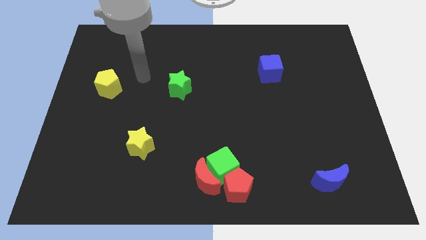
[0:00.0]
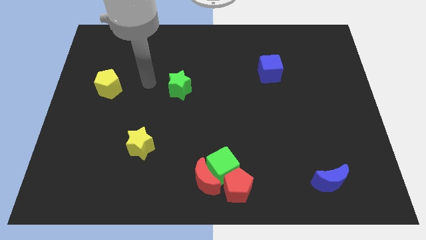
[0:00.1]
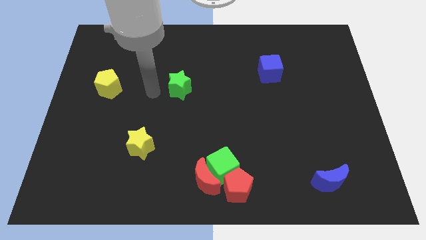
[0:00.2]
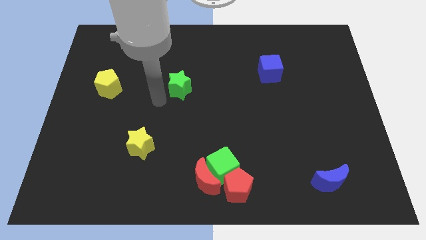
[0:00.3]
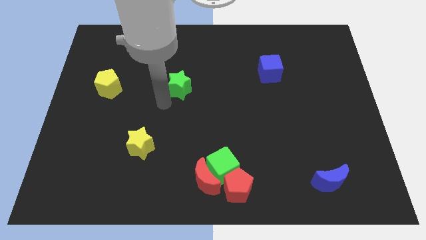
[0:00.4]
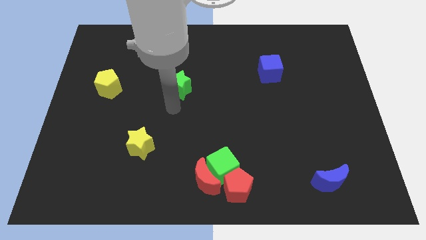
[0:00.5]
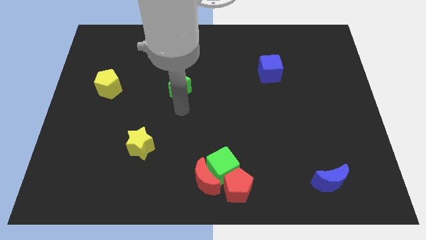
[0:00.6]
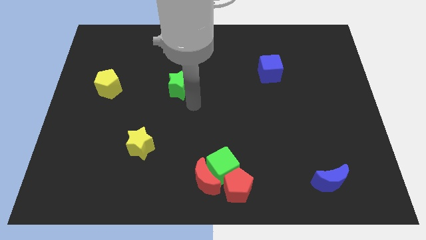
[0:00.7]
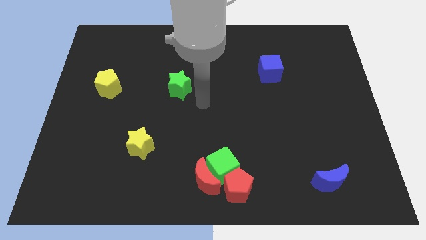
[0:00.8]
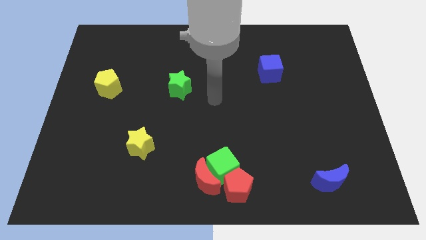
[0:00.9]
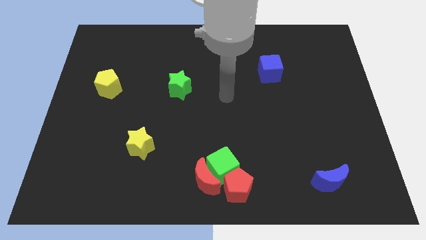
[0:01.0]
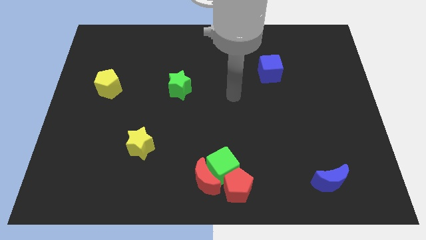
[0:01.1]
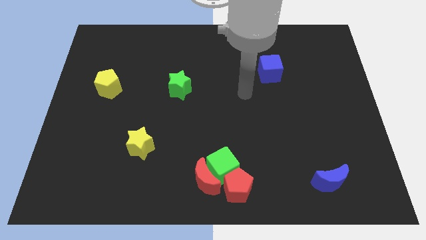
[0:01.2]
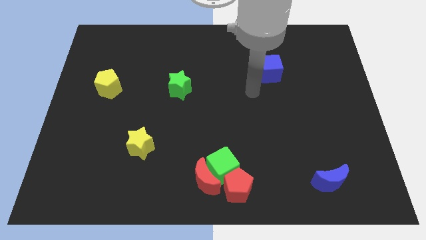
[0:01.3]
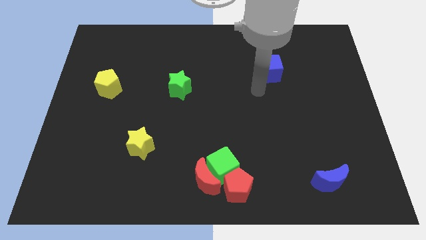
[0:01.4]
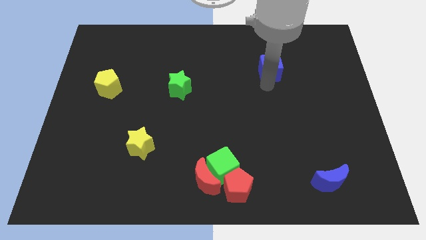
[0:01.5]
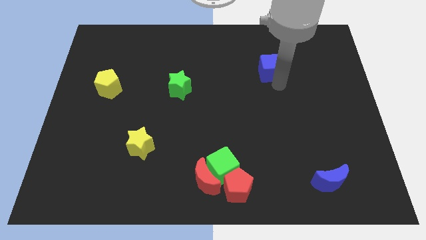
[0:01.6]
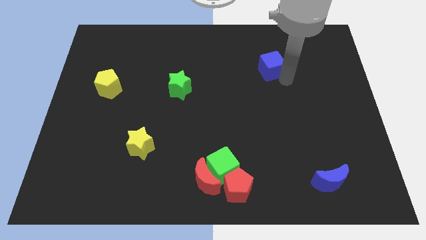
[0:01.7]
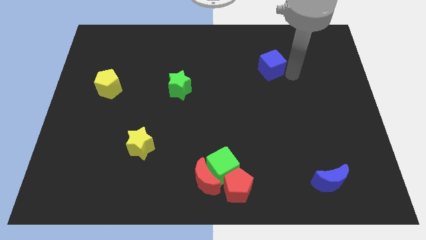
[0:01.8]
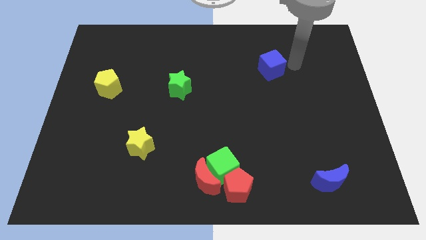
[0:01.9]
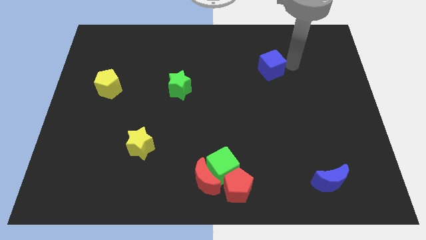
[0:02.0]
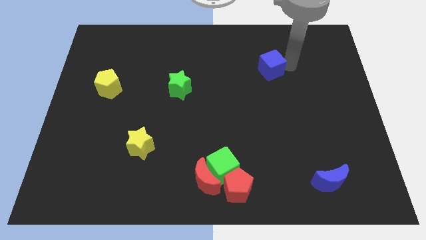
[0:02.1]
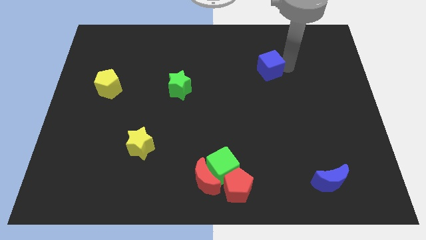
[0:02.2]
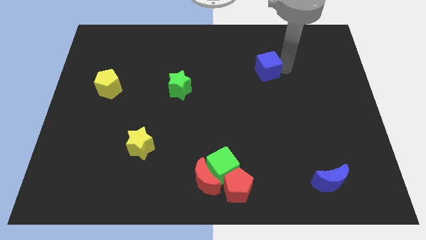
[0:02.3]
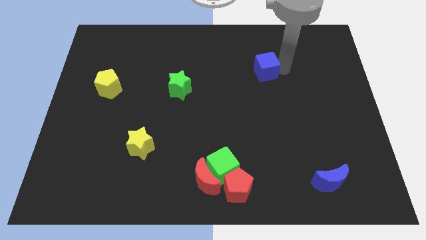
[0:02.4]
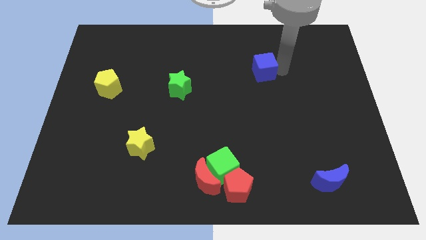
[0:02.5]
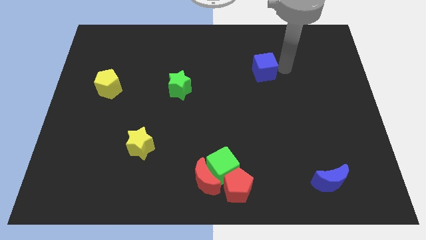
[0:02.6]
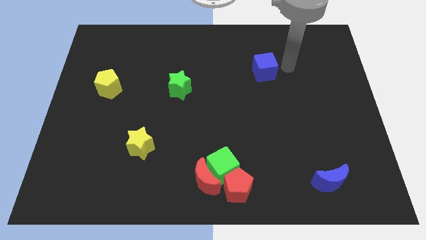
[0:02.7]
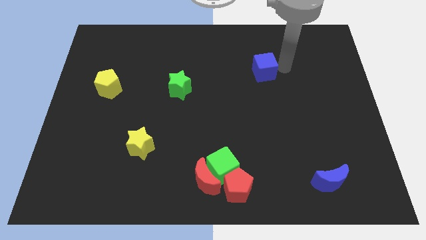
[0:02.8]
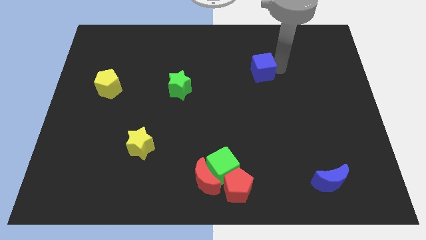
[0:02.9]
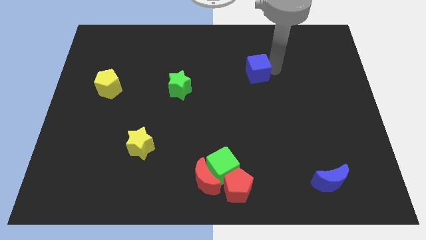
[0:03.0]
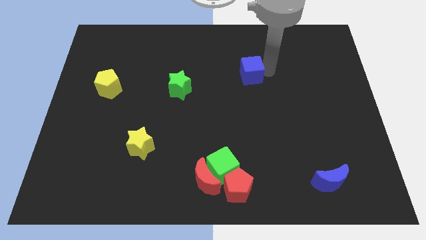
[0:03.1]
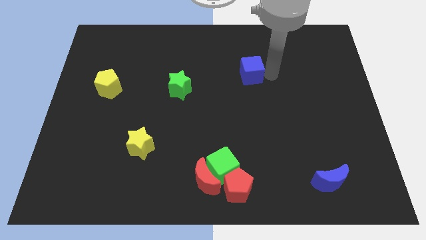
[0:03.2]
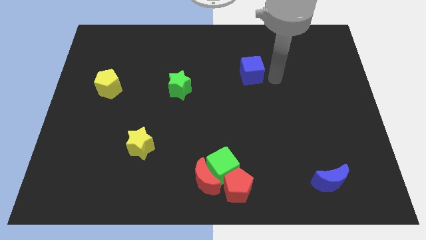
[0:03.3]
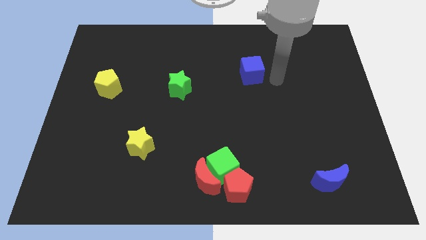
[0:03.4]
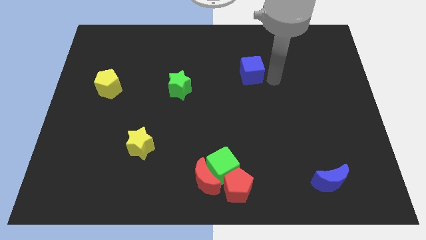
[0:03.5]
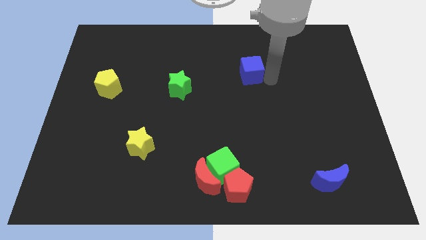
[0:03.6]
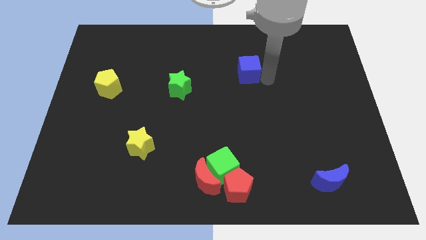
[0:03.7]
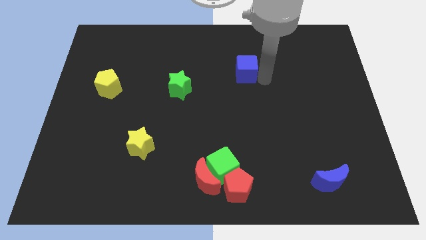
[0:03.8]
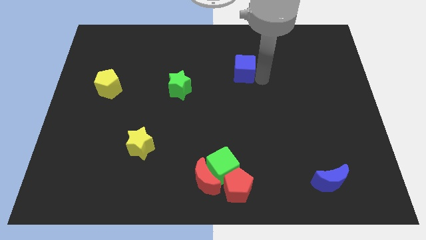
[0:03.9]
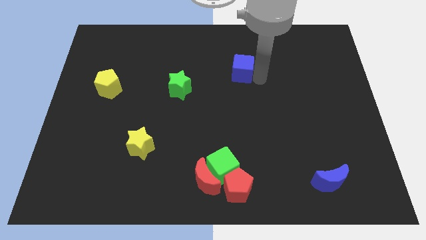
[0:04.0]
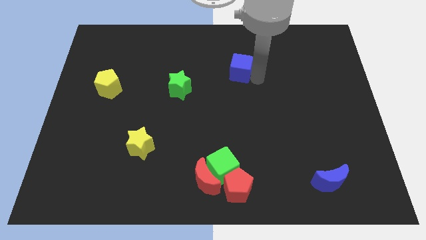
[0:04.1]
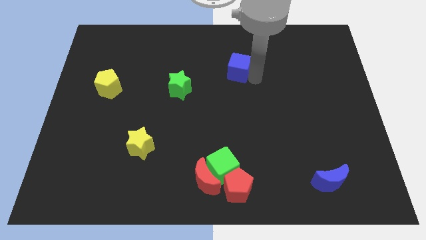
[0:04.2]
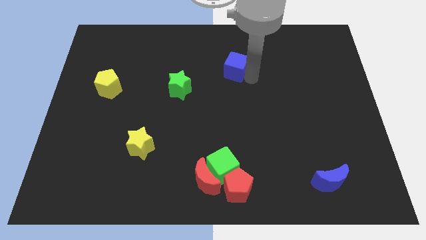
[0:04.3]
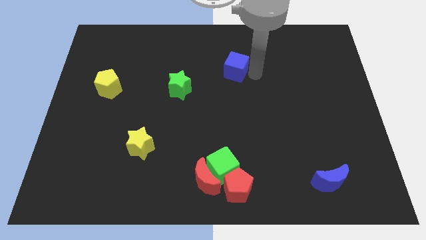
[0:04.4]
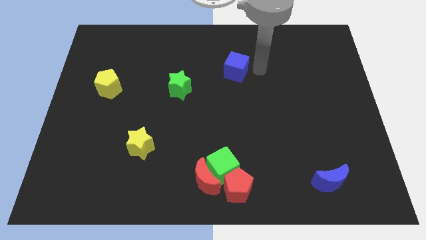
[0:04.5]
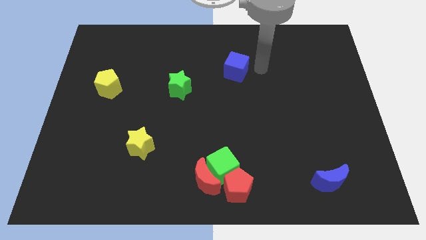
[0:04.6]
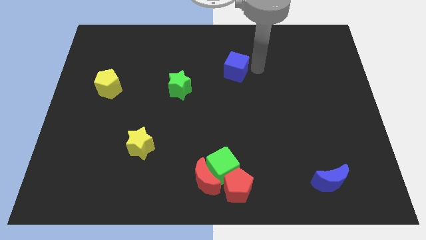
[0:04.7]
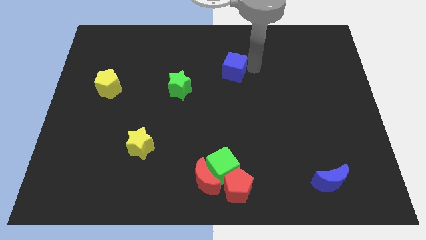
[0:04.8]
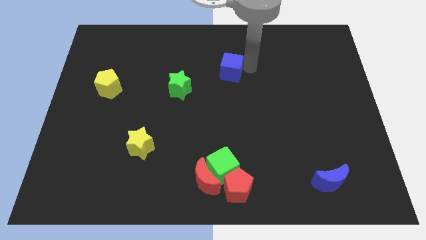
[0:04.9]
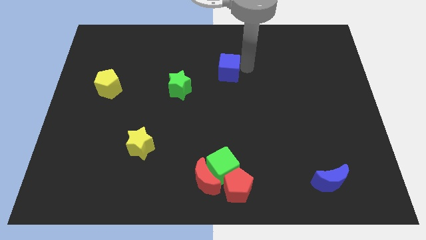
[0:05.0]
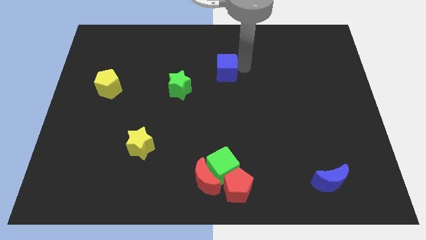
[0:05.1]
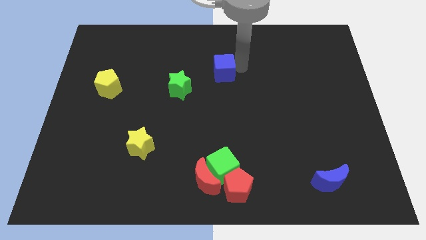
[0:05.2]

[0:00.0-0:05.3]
put the blue cube to the top right side of the green star

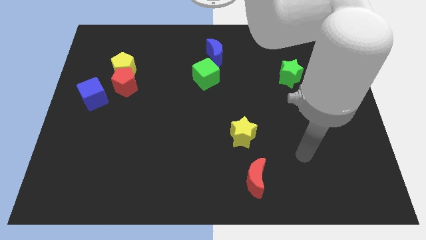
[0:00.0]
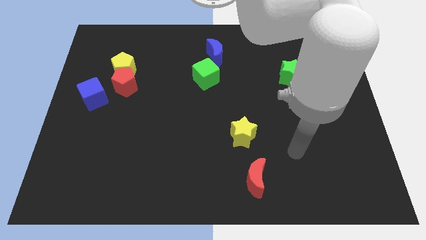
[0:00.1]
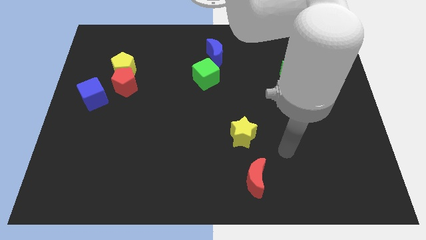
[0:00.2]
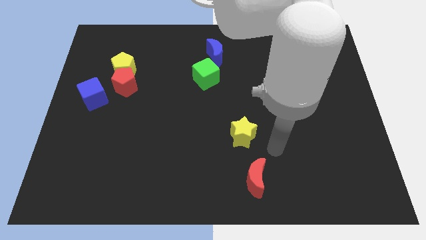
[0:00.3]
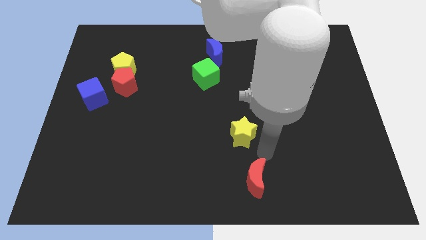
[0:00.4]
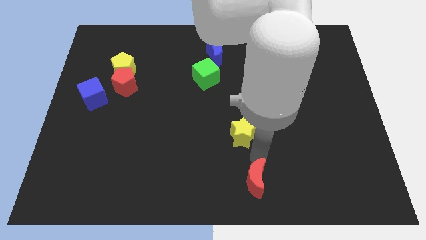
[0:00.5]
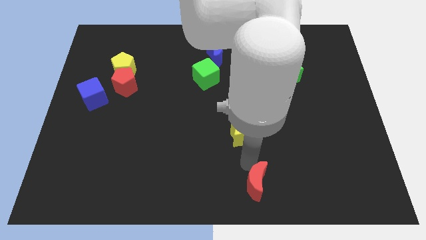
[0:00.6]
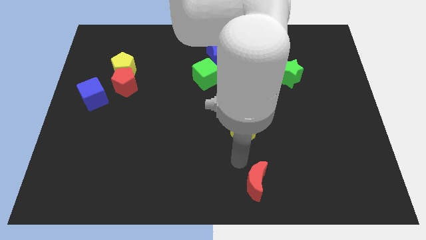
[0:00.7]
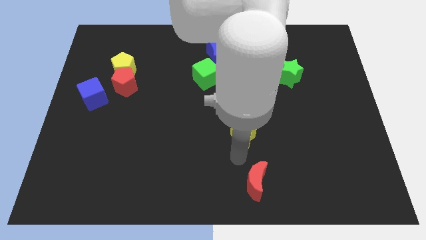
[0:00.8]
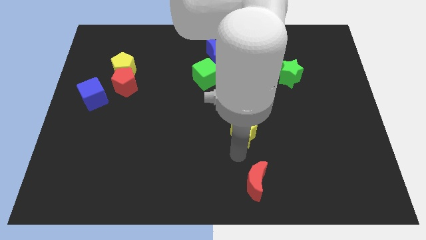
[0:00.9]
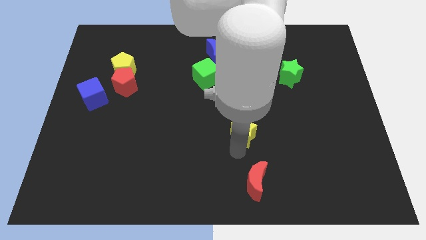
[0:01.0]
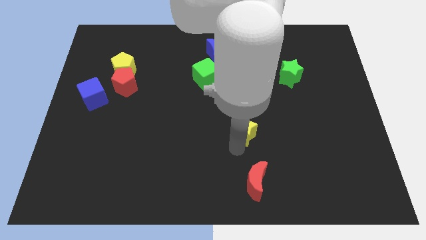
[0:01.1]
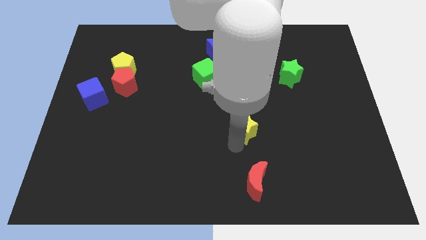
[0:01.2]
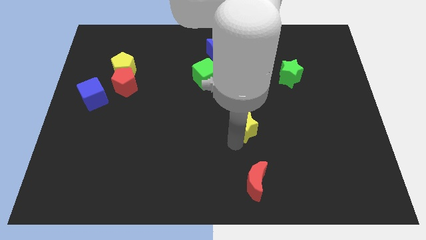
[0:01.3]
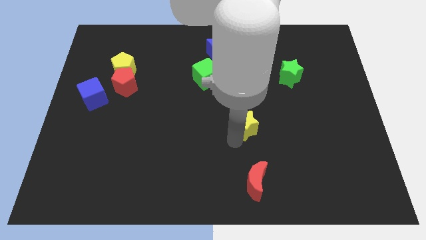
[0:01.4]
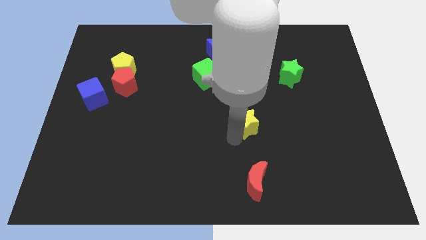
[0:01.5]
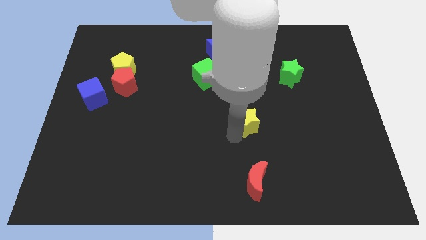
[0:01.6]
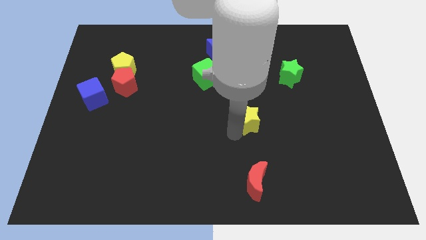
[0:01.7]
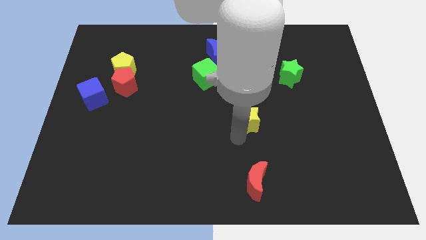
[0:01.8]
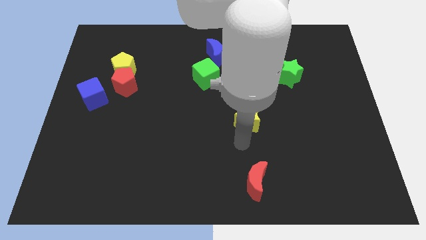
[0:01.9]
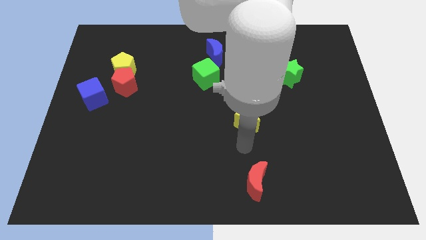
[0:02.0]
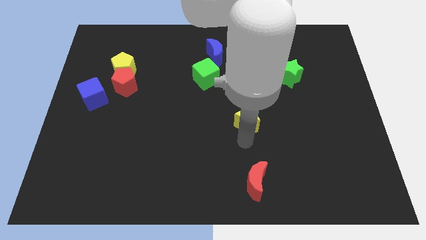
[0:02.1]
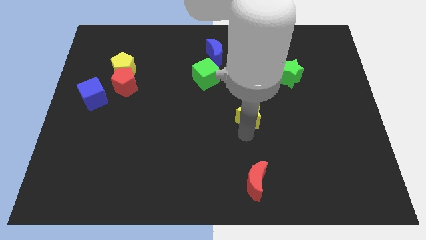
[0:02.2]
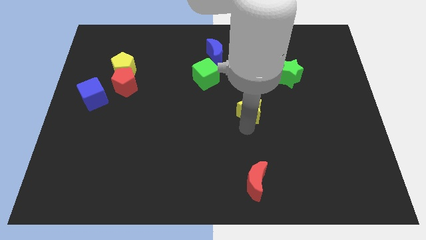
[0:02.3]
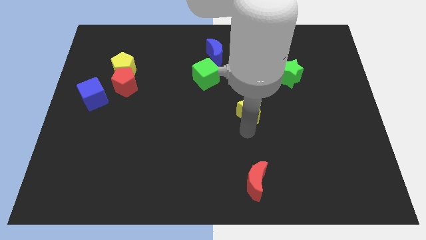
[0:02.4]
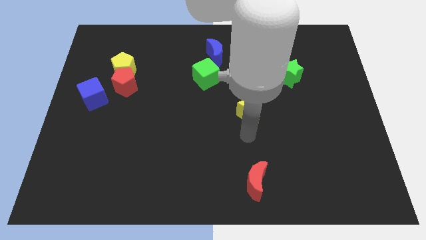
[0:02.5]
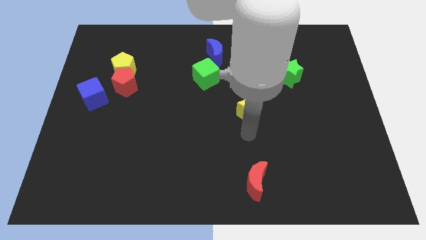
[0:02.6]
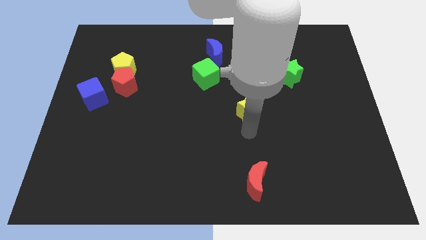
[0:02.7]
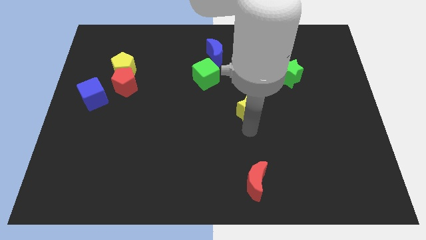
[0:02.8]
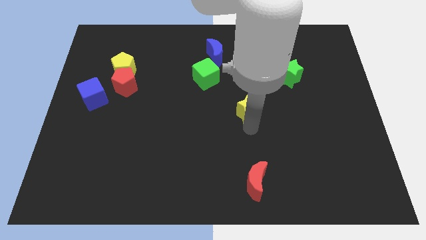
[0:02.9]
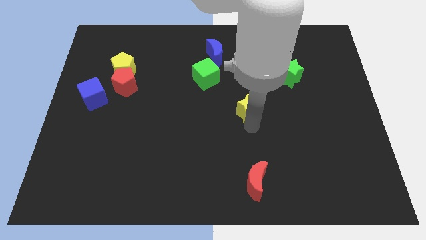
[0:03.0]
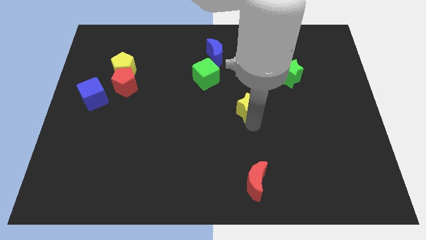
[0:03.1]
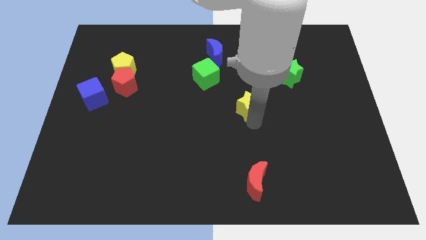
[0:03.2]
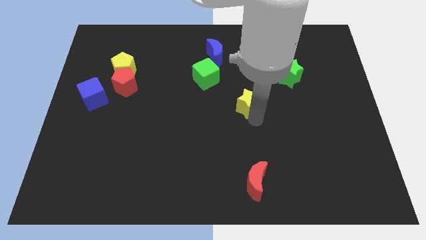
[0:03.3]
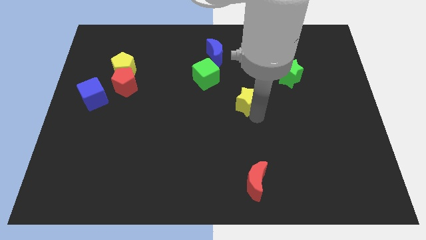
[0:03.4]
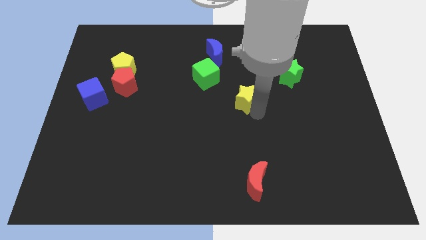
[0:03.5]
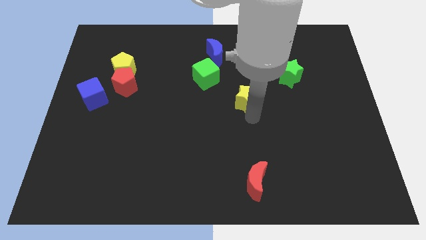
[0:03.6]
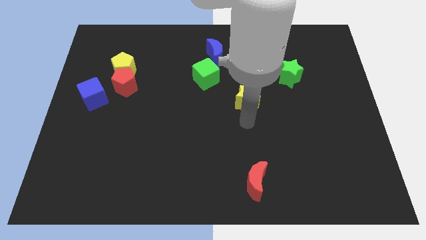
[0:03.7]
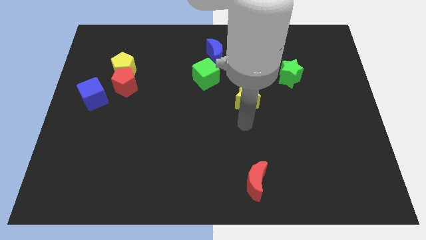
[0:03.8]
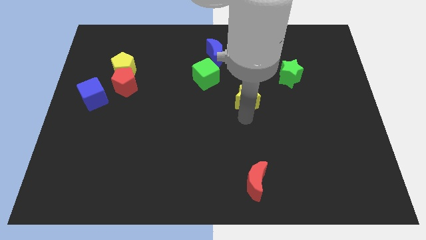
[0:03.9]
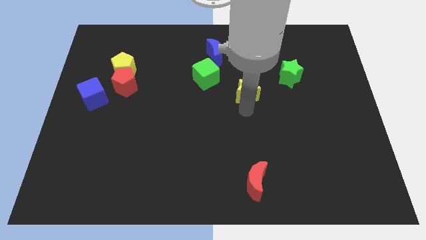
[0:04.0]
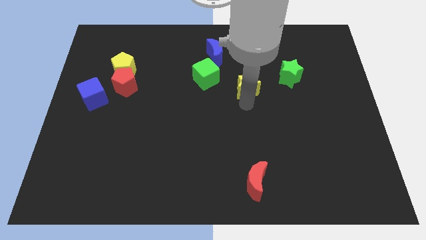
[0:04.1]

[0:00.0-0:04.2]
push the yellow star to the left side of the green star
